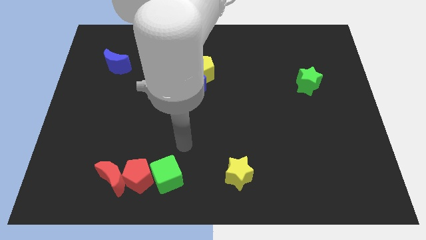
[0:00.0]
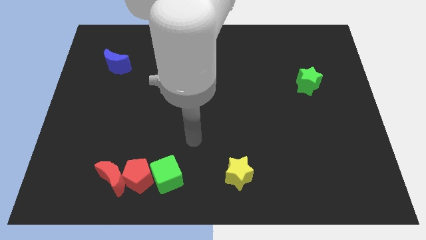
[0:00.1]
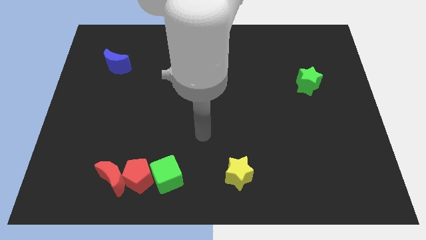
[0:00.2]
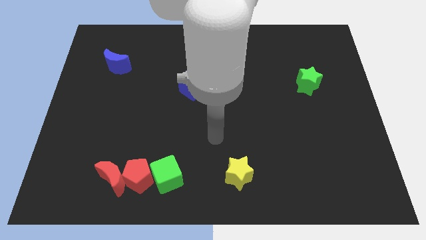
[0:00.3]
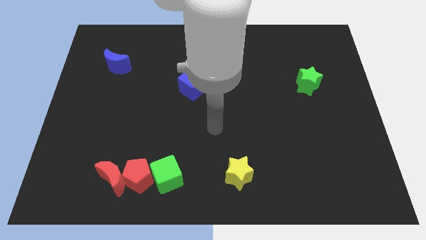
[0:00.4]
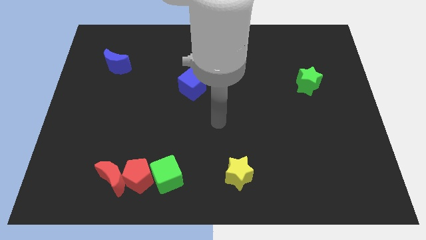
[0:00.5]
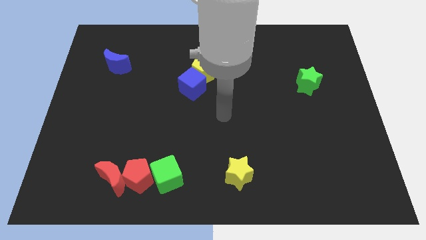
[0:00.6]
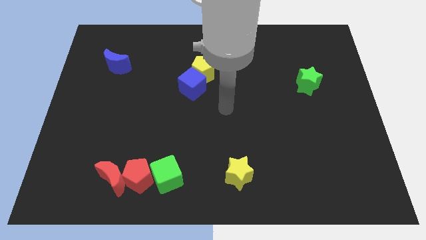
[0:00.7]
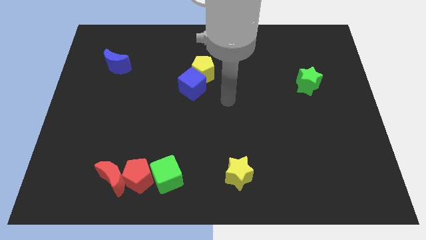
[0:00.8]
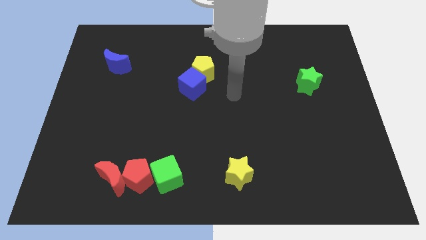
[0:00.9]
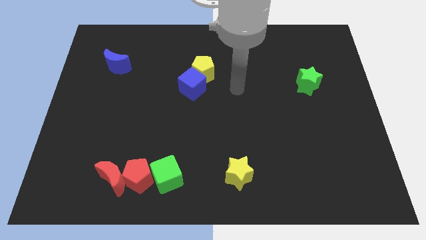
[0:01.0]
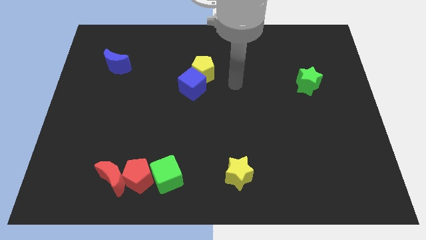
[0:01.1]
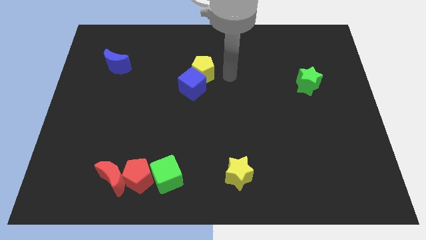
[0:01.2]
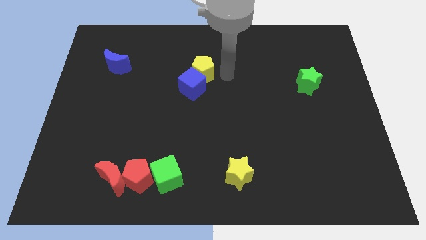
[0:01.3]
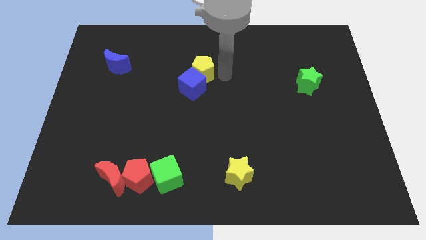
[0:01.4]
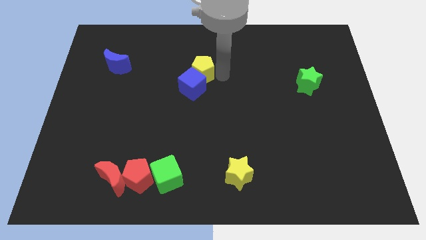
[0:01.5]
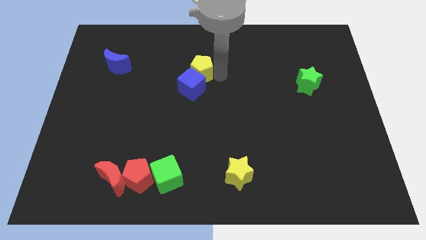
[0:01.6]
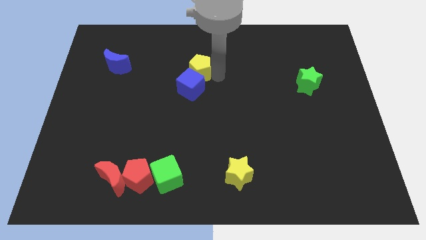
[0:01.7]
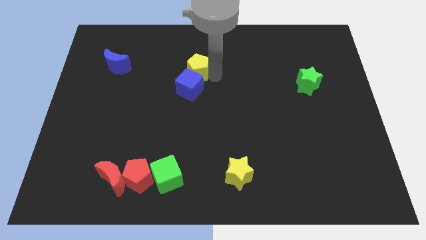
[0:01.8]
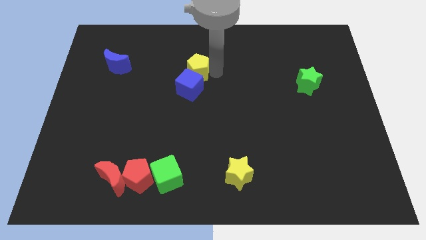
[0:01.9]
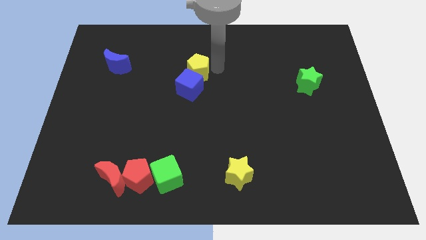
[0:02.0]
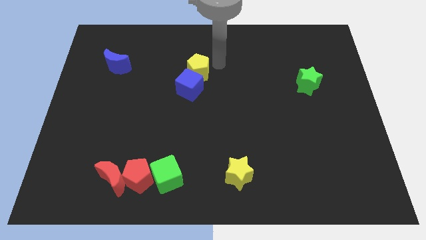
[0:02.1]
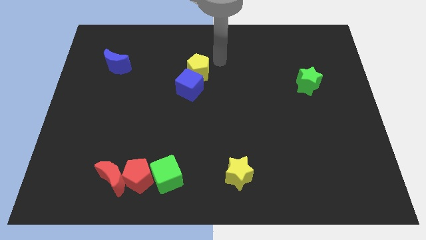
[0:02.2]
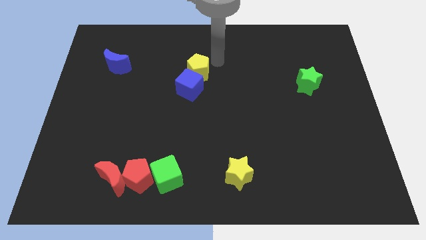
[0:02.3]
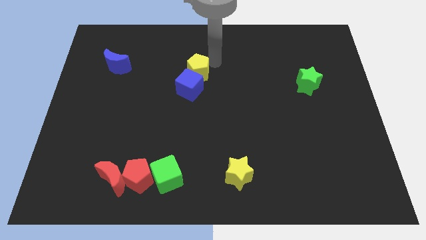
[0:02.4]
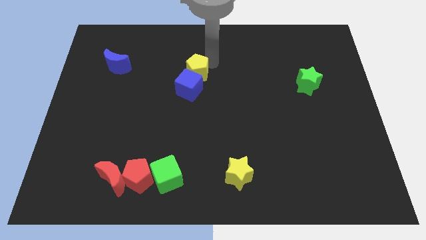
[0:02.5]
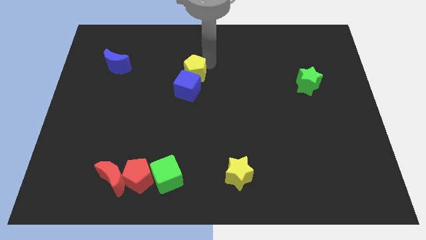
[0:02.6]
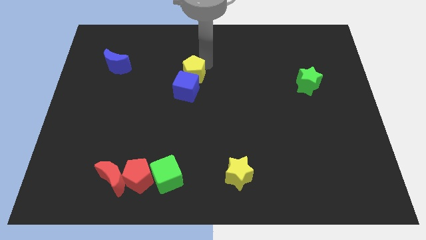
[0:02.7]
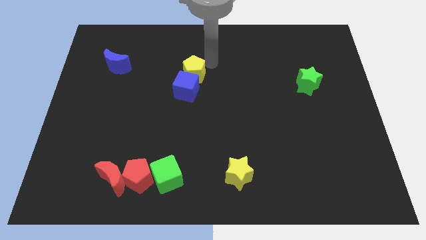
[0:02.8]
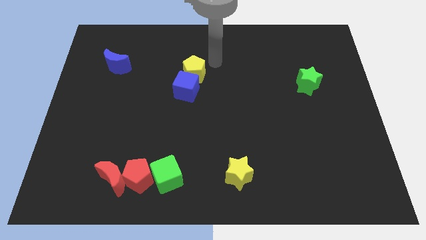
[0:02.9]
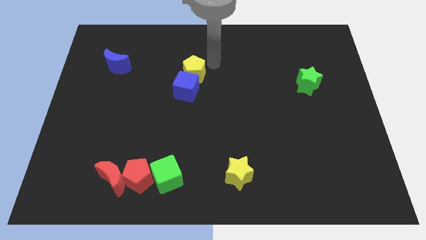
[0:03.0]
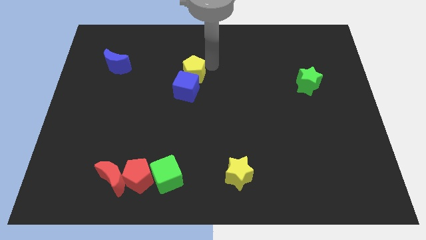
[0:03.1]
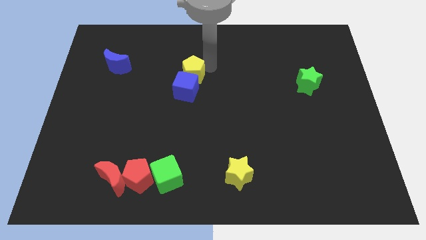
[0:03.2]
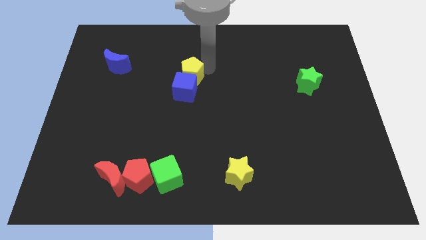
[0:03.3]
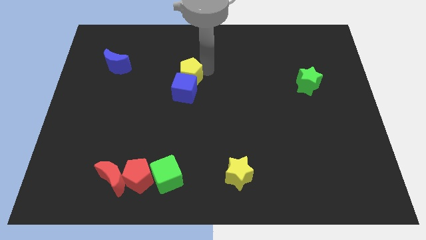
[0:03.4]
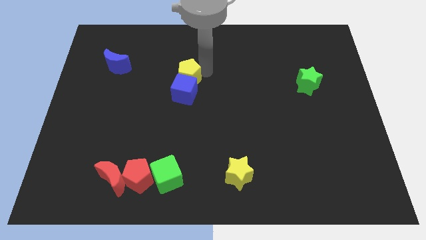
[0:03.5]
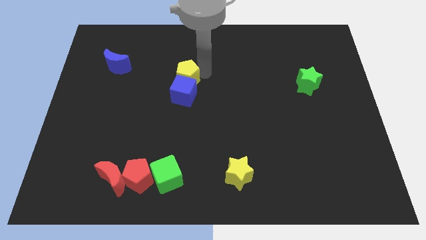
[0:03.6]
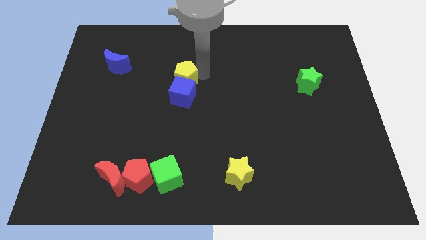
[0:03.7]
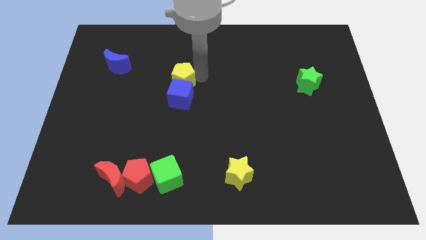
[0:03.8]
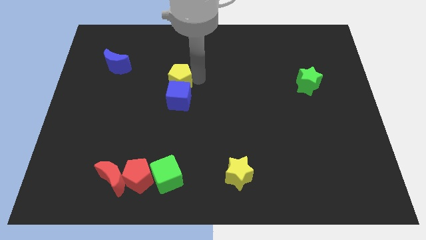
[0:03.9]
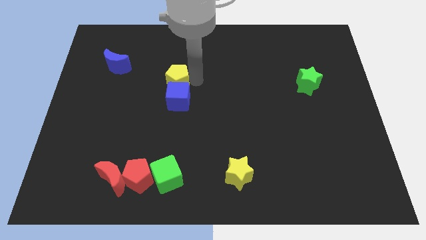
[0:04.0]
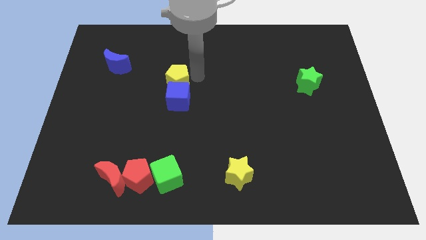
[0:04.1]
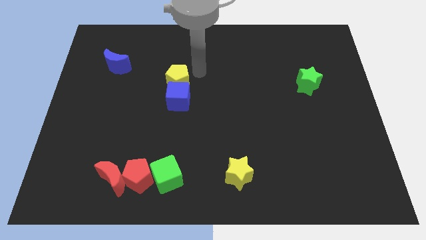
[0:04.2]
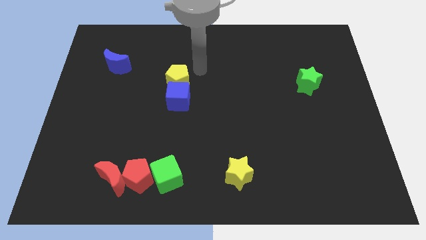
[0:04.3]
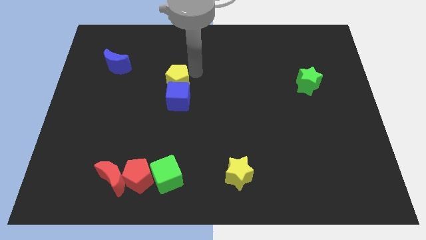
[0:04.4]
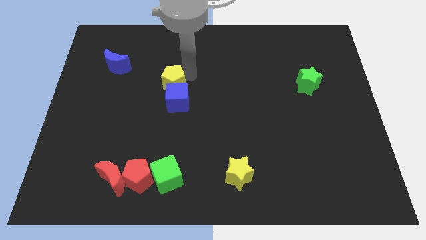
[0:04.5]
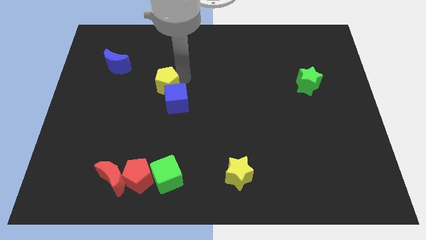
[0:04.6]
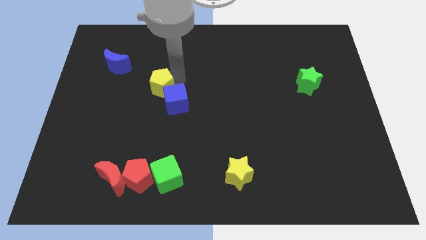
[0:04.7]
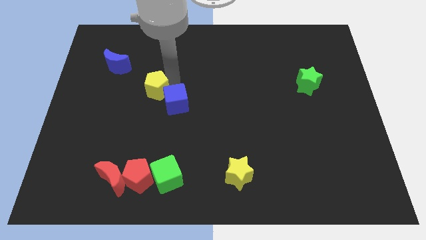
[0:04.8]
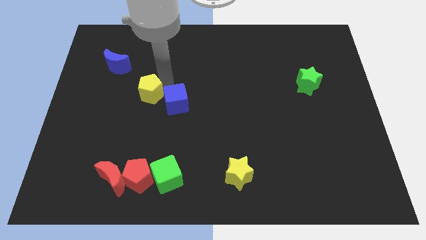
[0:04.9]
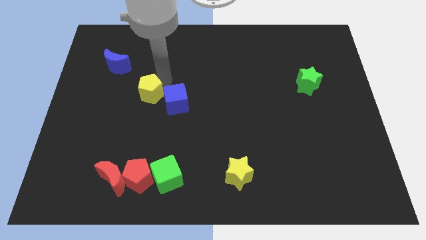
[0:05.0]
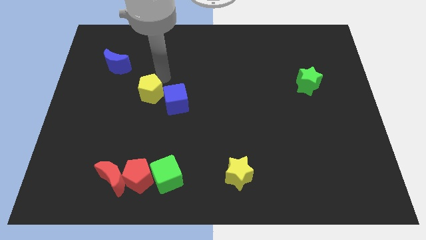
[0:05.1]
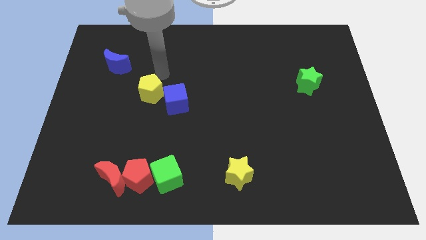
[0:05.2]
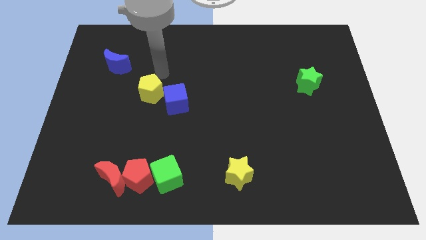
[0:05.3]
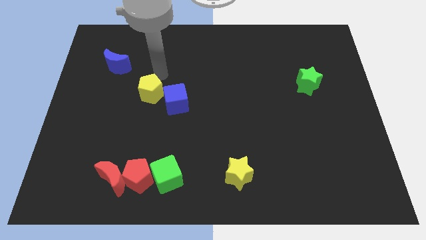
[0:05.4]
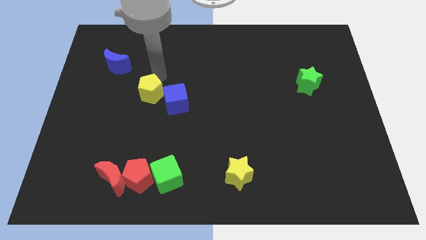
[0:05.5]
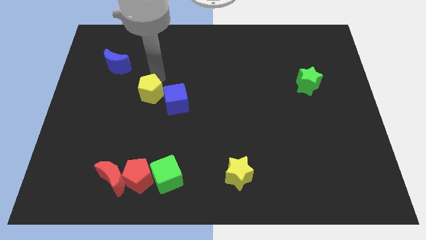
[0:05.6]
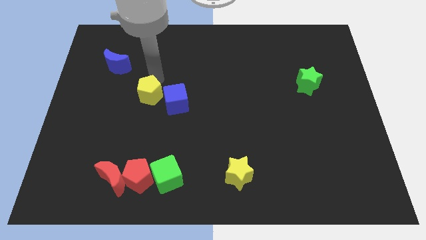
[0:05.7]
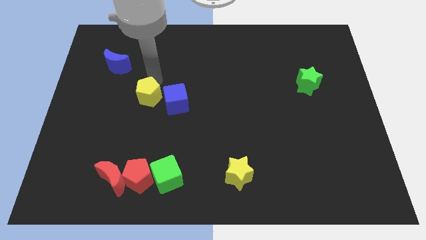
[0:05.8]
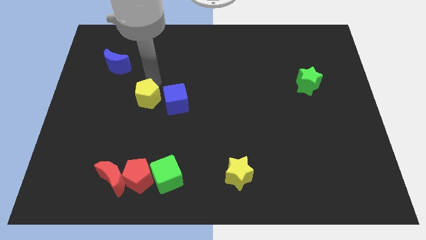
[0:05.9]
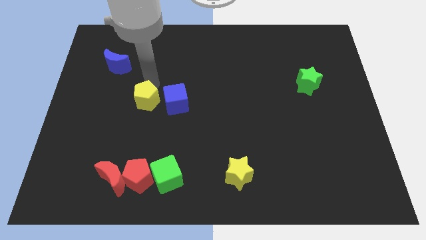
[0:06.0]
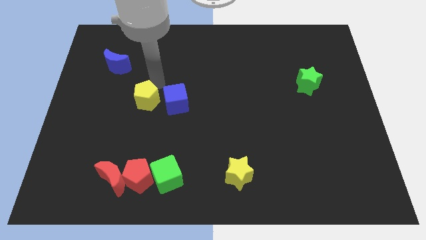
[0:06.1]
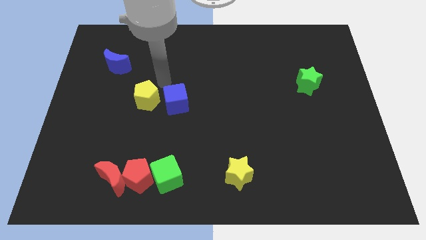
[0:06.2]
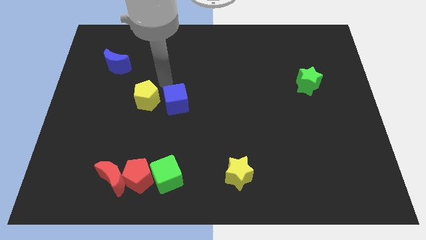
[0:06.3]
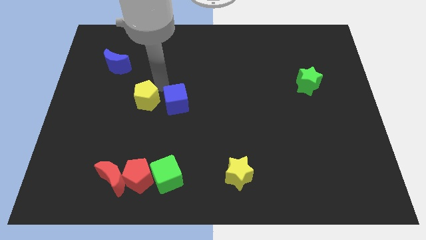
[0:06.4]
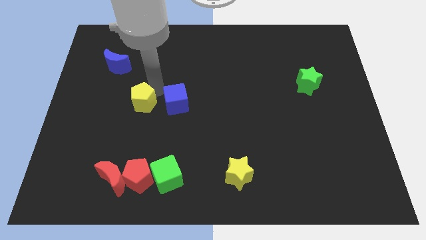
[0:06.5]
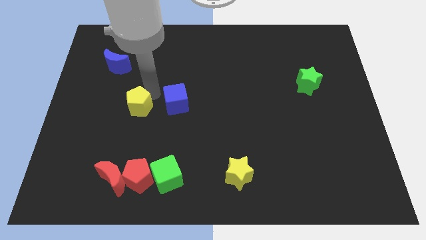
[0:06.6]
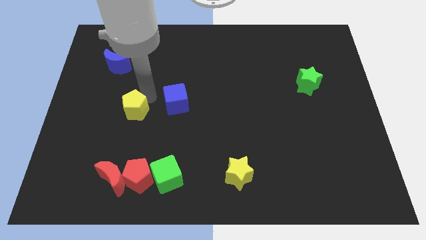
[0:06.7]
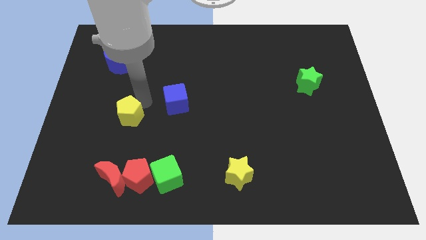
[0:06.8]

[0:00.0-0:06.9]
slide the yellow pentagon down and to the left

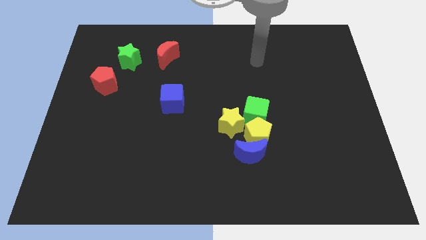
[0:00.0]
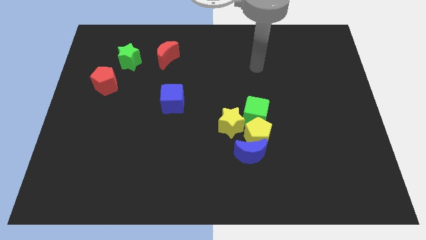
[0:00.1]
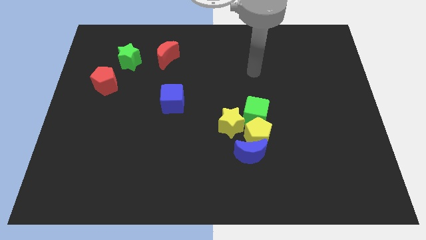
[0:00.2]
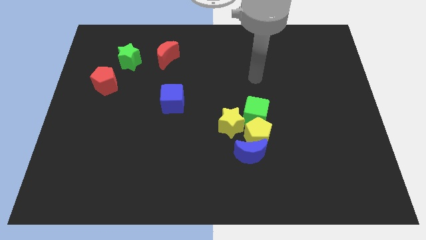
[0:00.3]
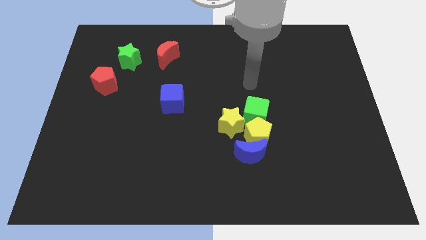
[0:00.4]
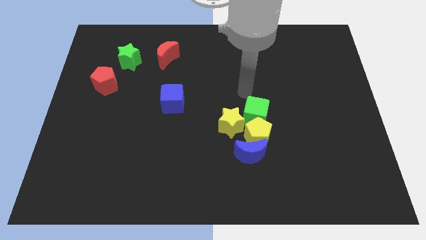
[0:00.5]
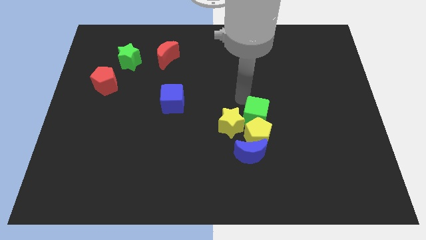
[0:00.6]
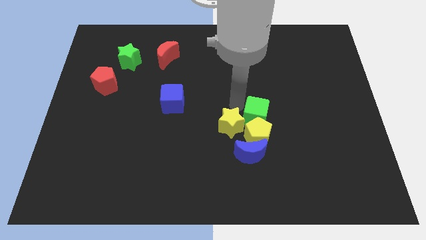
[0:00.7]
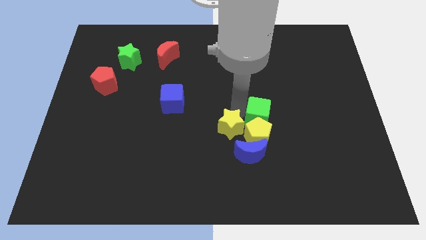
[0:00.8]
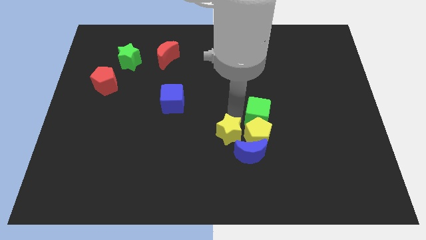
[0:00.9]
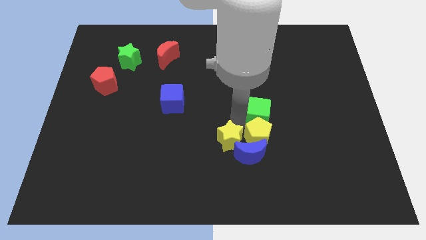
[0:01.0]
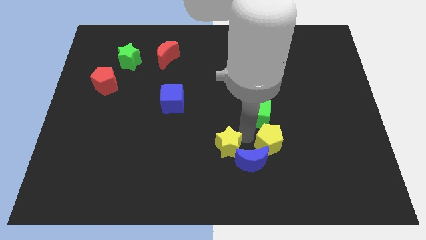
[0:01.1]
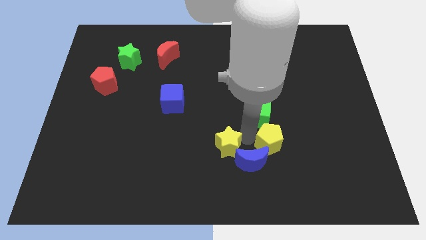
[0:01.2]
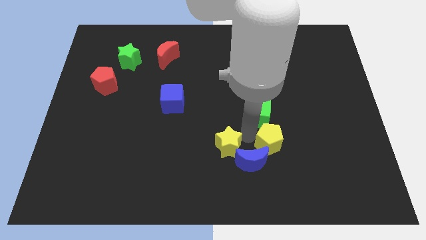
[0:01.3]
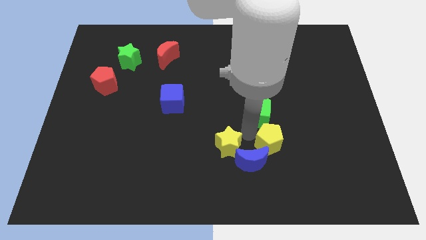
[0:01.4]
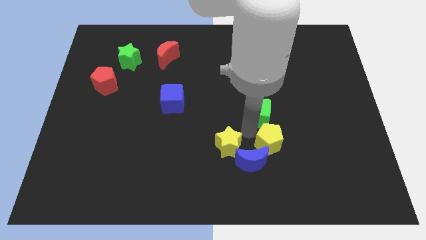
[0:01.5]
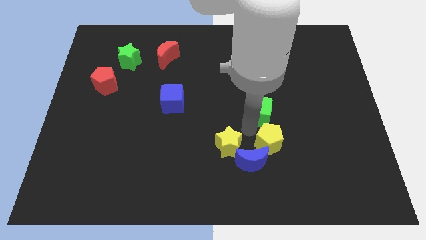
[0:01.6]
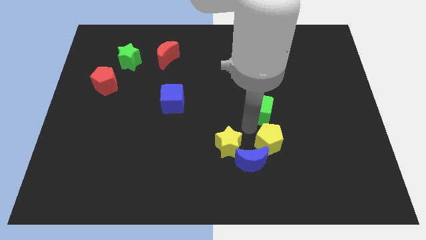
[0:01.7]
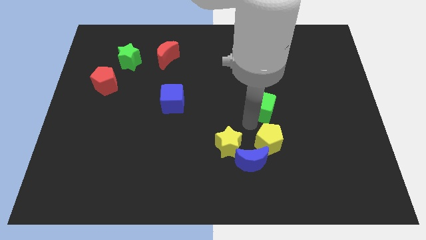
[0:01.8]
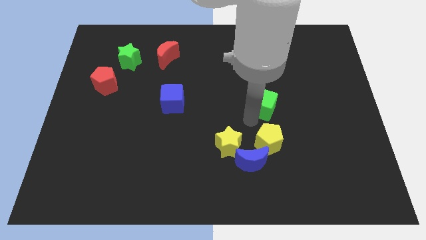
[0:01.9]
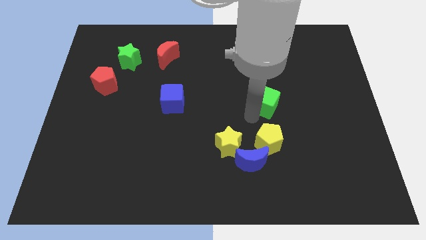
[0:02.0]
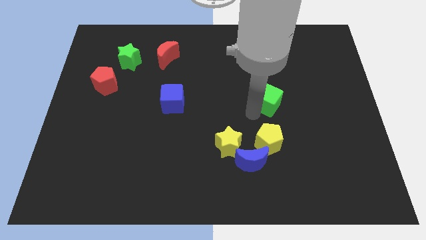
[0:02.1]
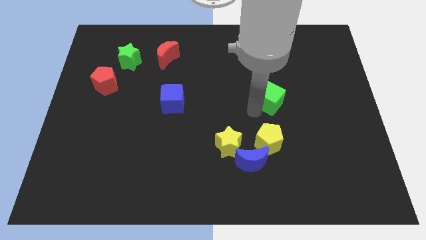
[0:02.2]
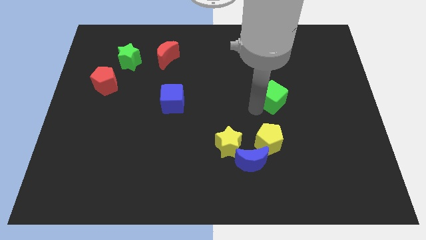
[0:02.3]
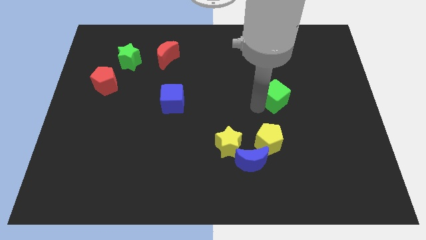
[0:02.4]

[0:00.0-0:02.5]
slide the green cube a little upwards and then right
